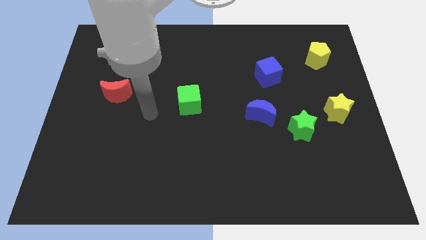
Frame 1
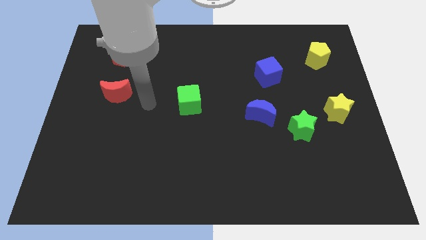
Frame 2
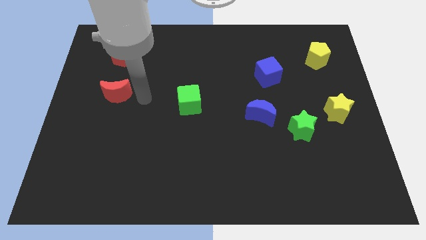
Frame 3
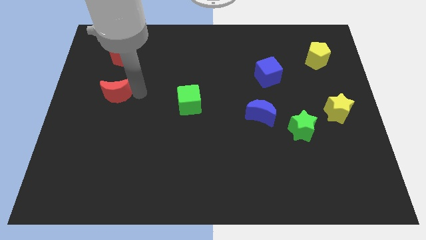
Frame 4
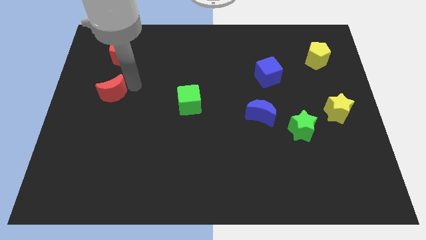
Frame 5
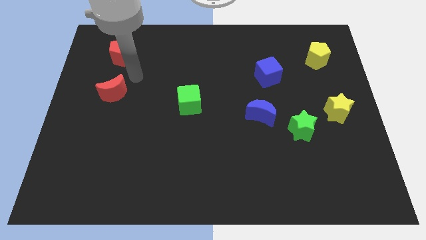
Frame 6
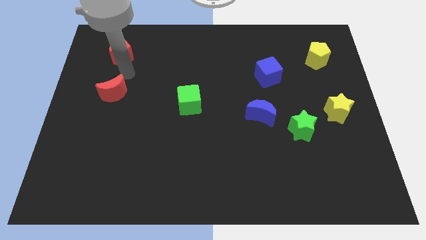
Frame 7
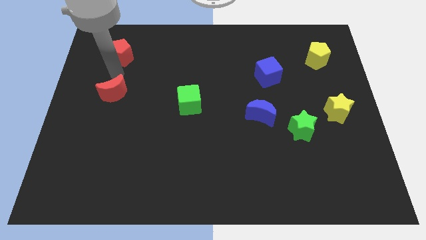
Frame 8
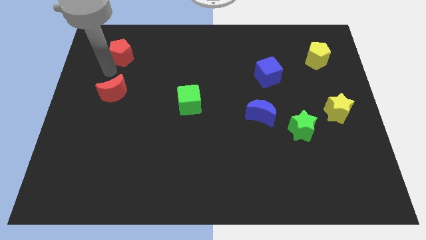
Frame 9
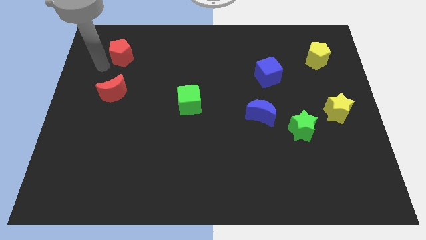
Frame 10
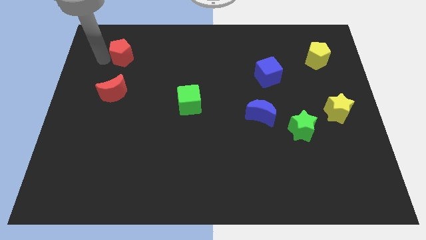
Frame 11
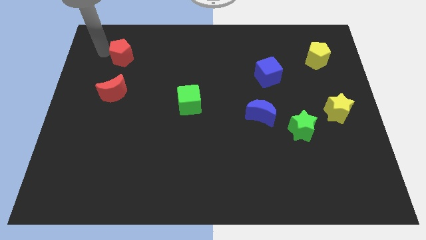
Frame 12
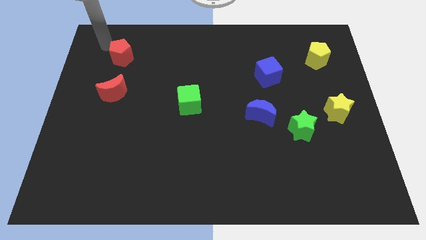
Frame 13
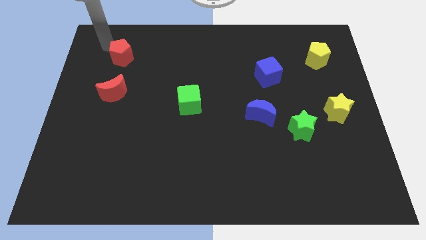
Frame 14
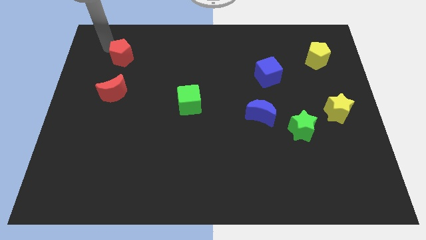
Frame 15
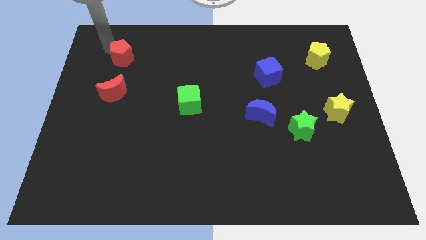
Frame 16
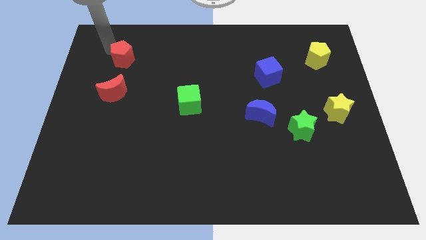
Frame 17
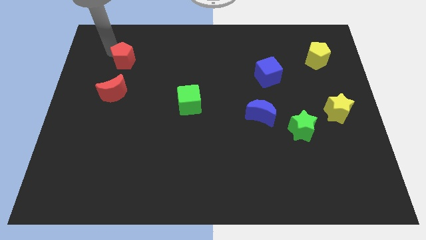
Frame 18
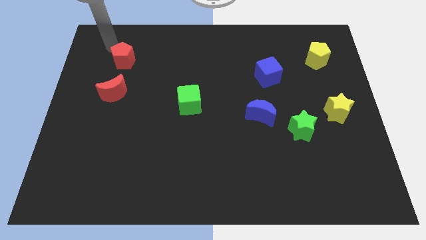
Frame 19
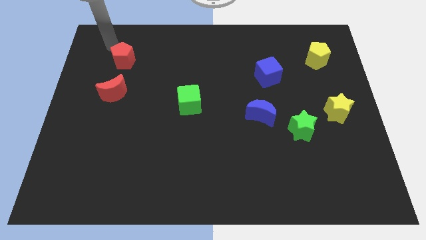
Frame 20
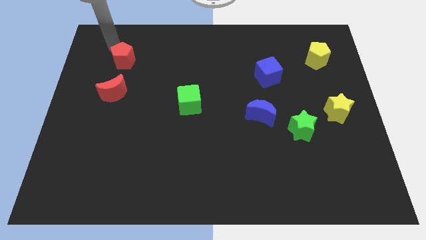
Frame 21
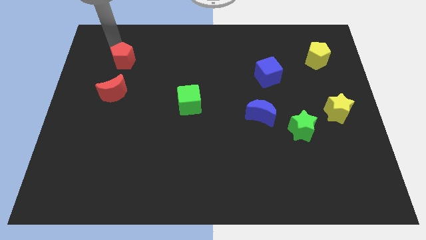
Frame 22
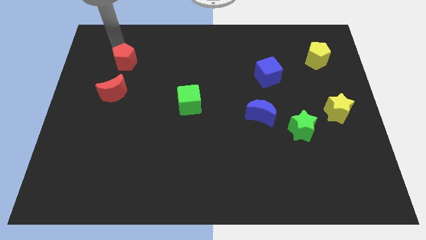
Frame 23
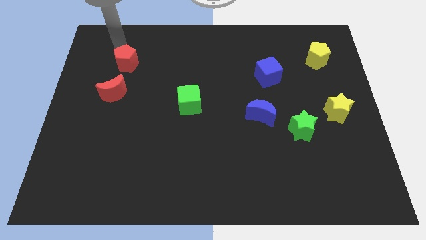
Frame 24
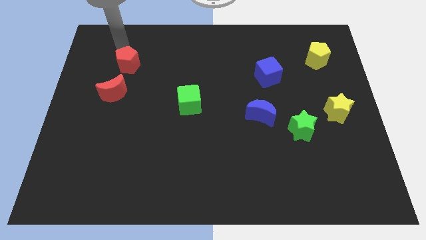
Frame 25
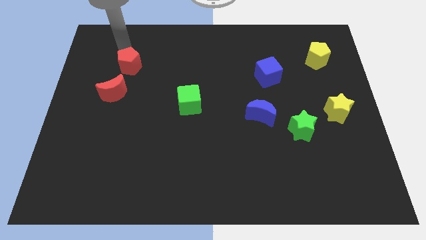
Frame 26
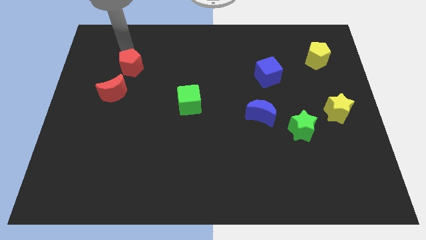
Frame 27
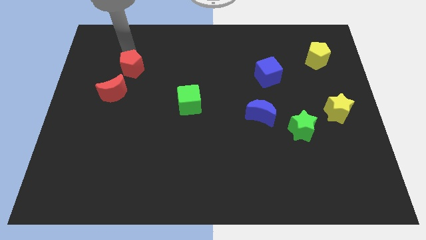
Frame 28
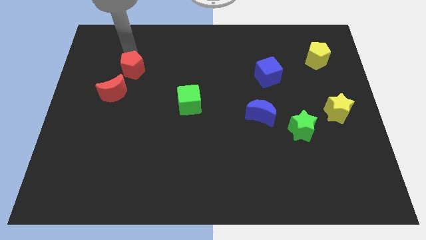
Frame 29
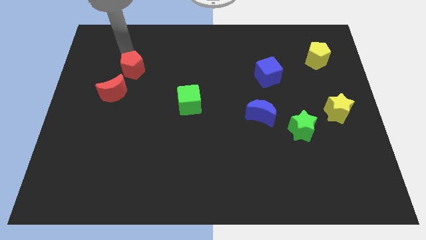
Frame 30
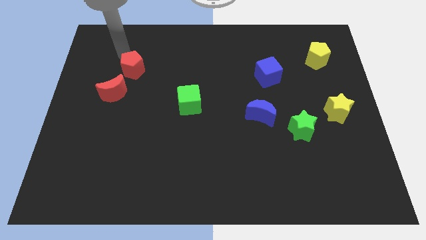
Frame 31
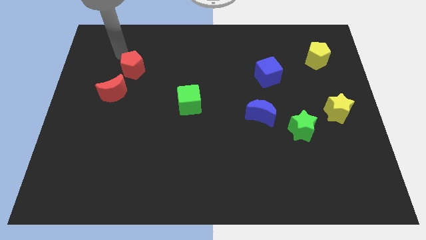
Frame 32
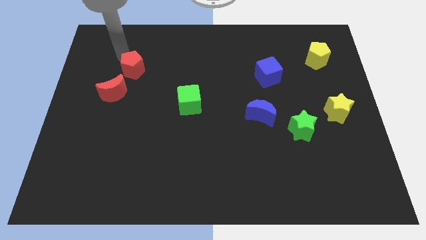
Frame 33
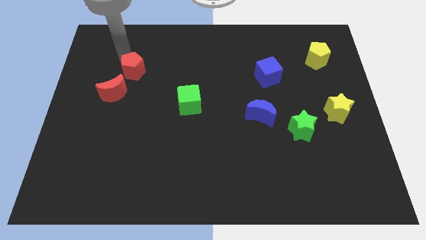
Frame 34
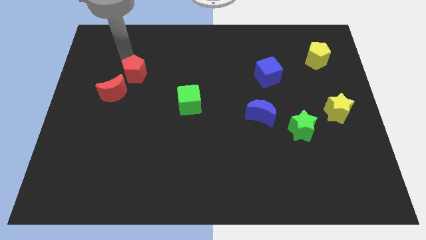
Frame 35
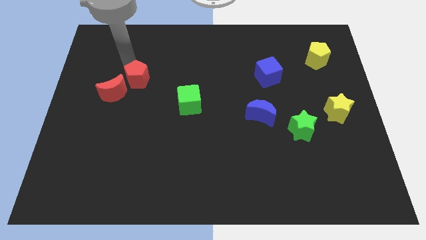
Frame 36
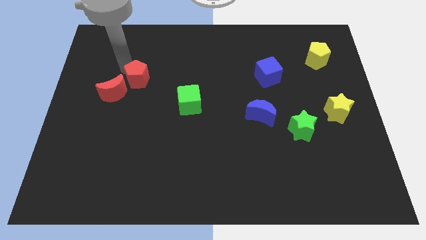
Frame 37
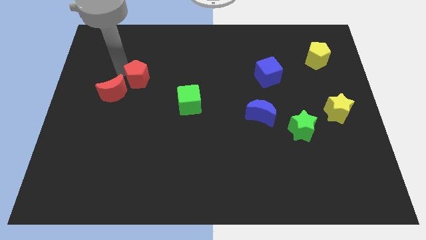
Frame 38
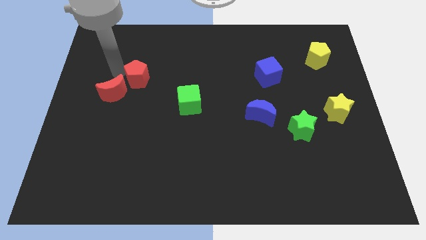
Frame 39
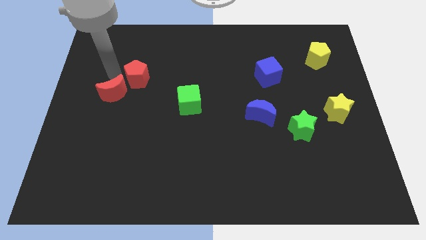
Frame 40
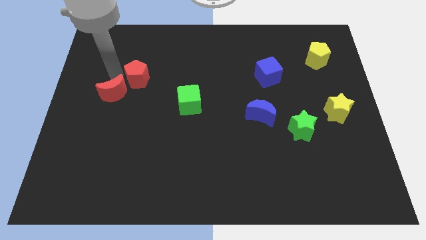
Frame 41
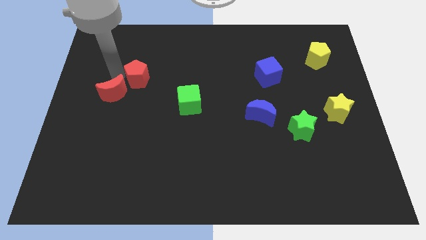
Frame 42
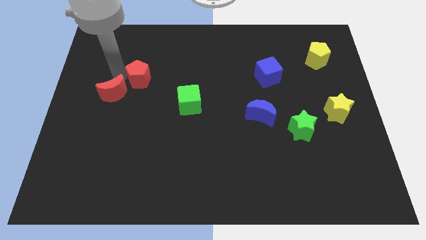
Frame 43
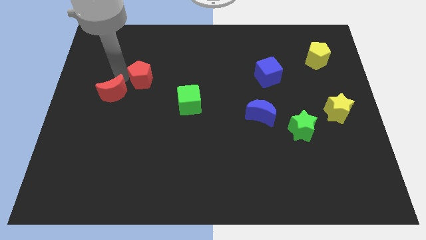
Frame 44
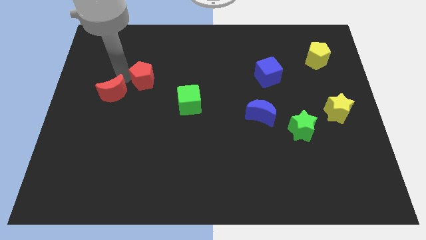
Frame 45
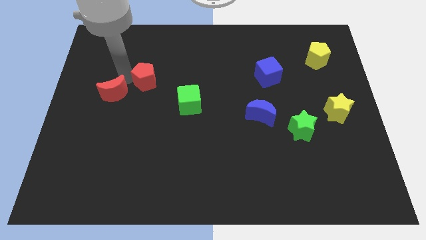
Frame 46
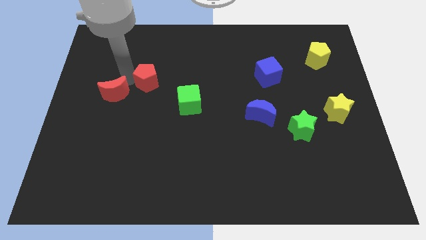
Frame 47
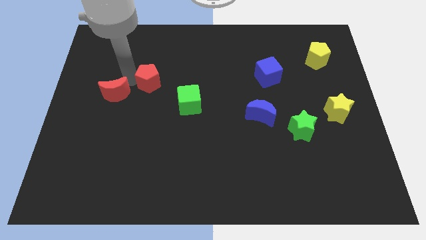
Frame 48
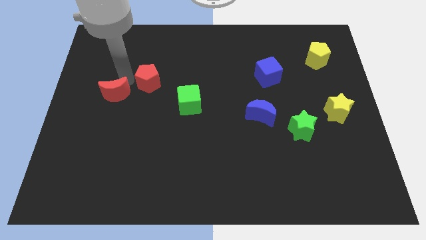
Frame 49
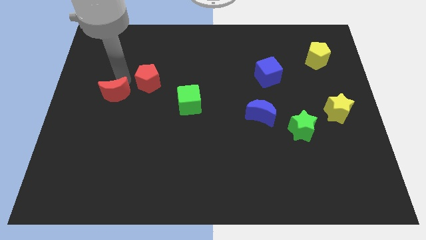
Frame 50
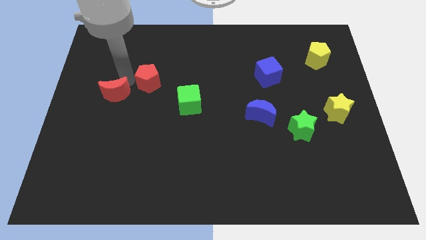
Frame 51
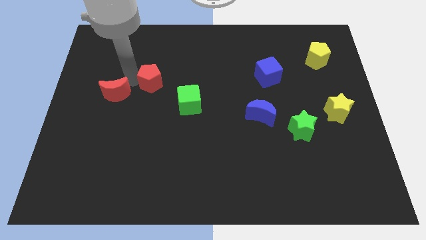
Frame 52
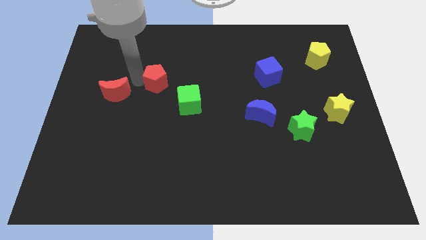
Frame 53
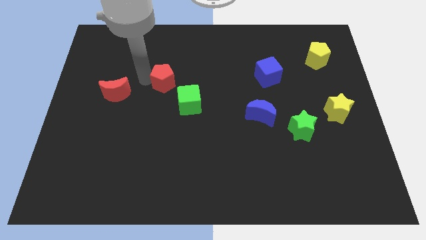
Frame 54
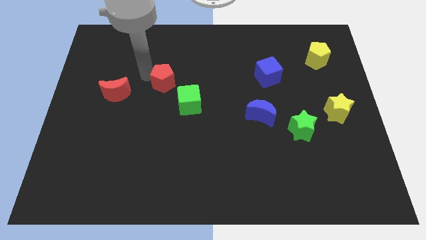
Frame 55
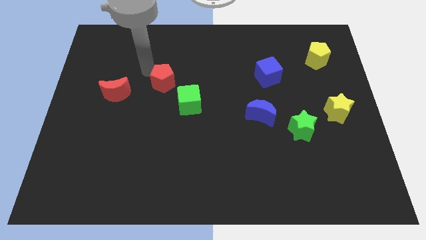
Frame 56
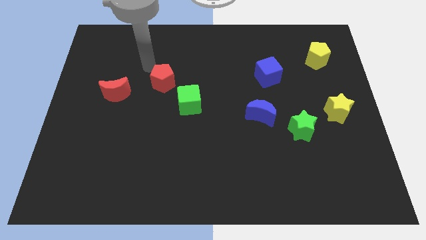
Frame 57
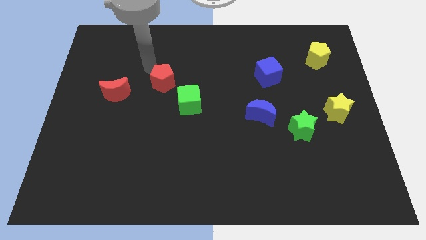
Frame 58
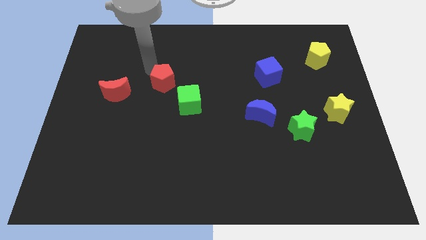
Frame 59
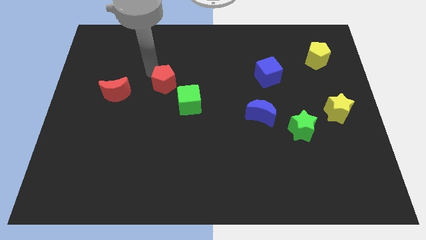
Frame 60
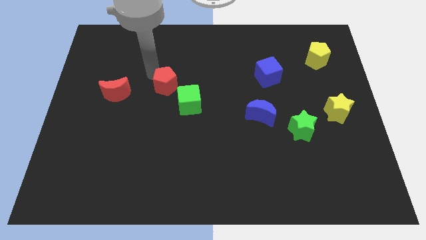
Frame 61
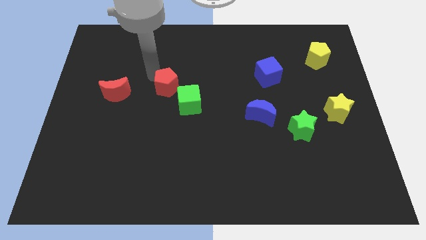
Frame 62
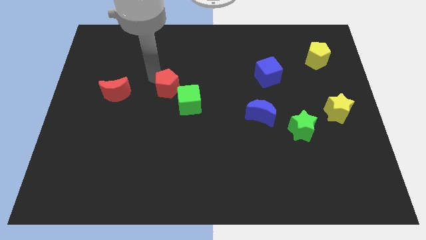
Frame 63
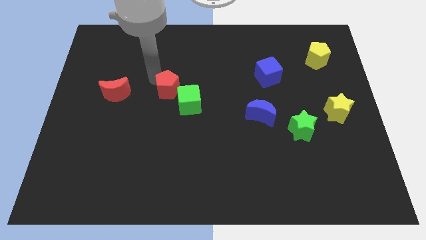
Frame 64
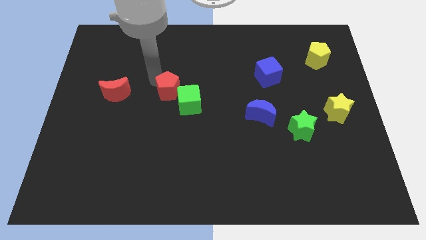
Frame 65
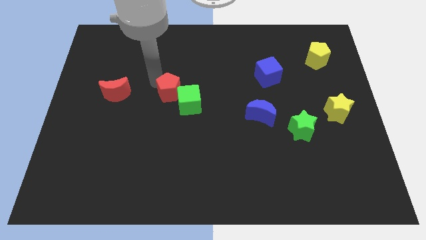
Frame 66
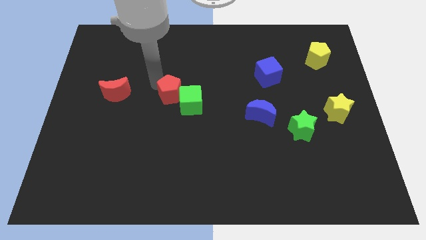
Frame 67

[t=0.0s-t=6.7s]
put the red pentagon next to the green cube

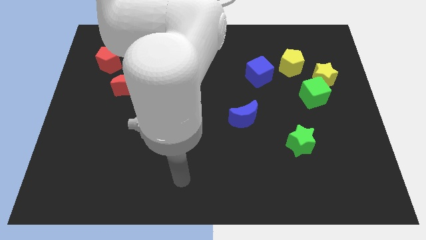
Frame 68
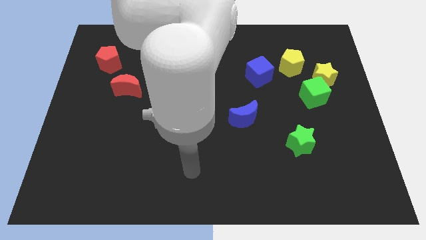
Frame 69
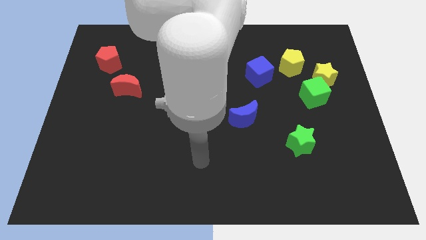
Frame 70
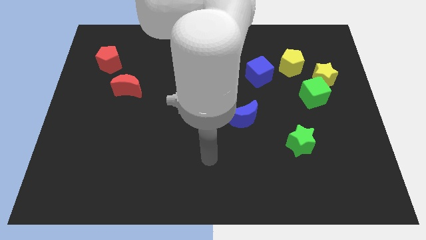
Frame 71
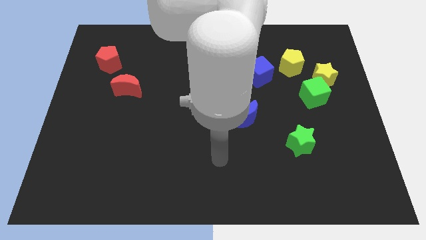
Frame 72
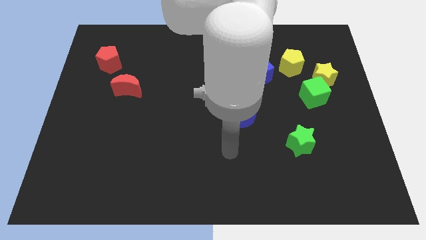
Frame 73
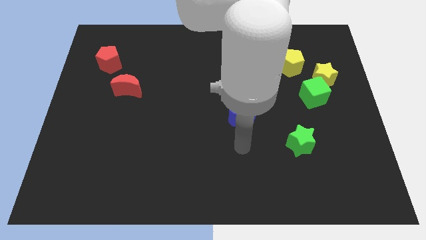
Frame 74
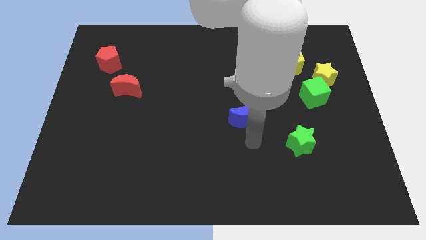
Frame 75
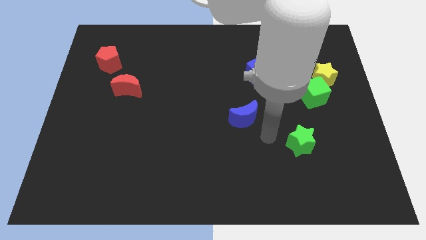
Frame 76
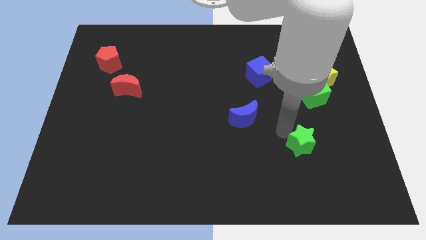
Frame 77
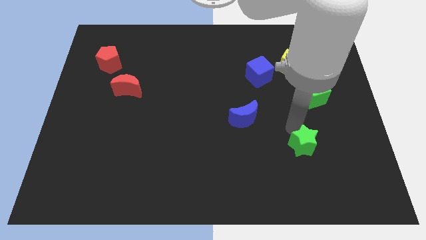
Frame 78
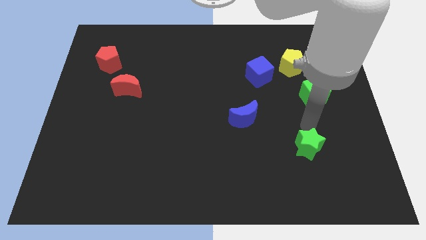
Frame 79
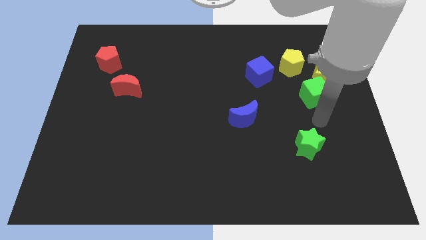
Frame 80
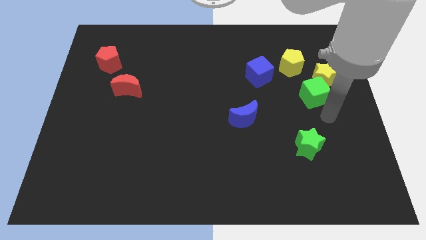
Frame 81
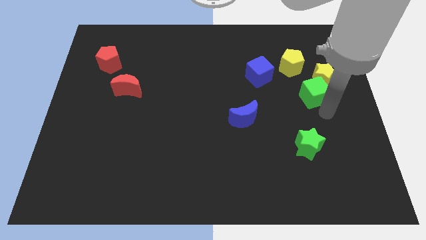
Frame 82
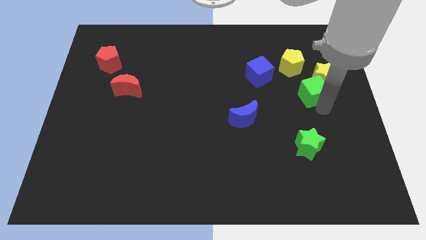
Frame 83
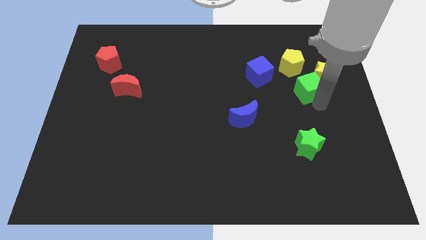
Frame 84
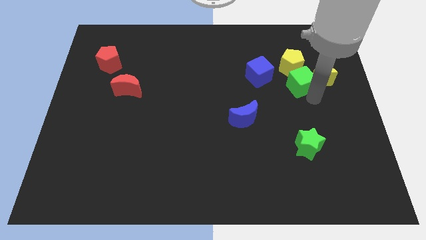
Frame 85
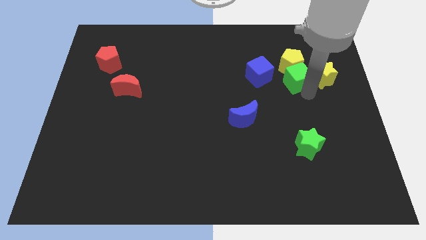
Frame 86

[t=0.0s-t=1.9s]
push the green cube close to the yellow pentagon
